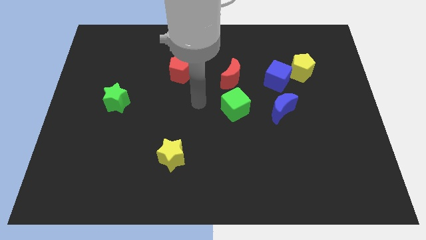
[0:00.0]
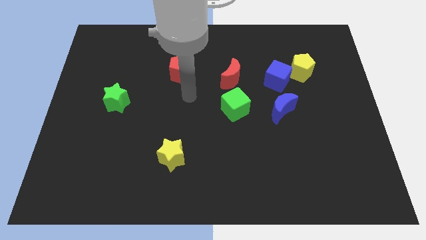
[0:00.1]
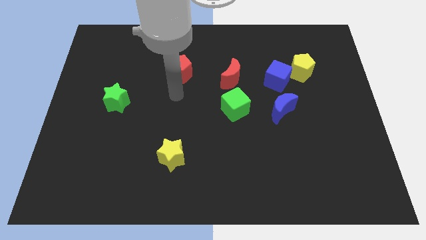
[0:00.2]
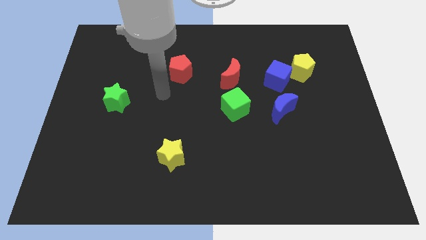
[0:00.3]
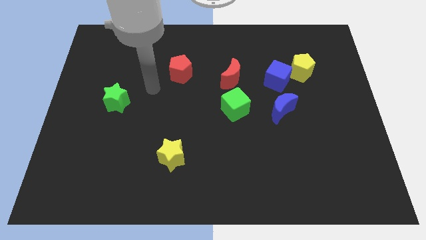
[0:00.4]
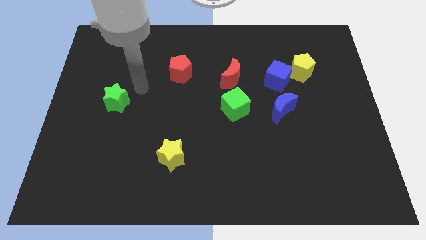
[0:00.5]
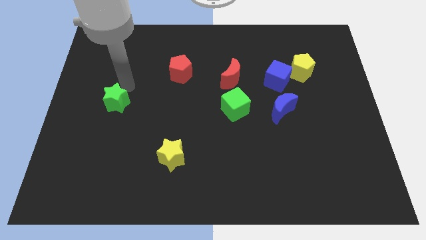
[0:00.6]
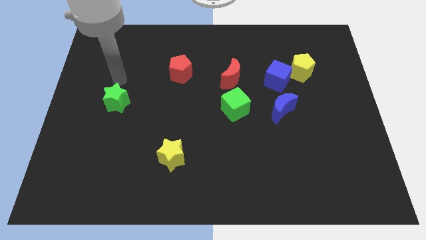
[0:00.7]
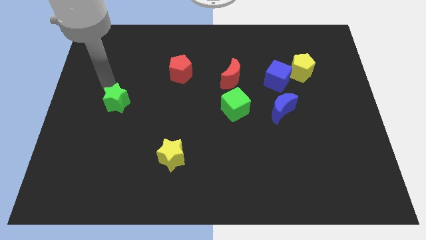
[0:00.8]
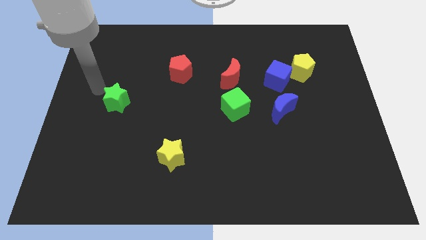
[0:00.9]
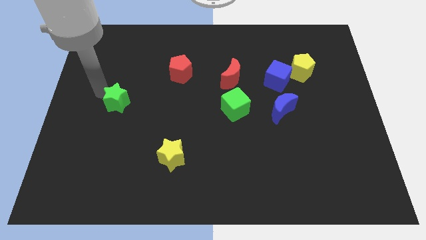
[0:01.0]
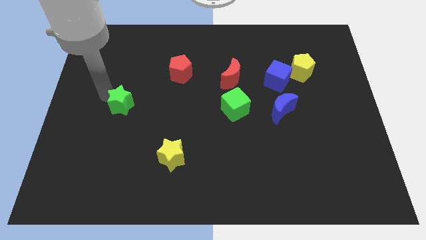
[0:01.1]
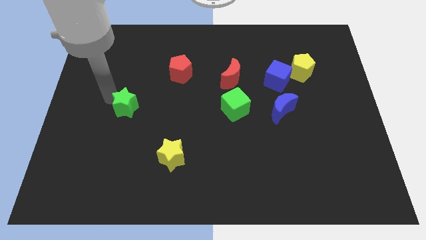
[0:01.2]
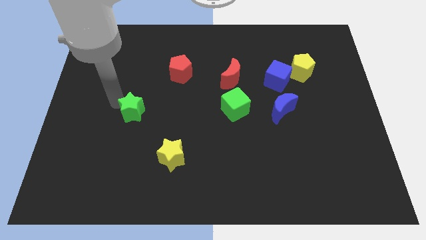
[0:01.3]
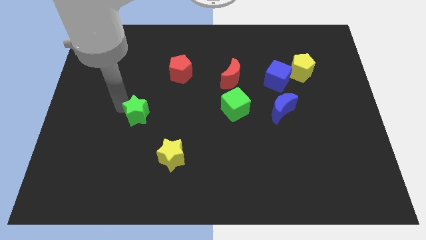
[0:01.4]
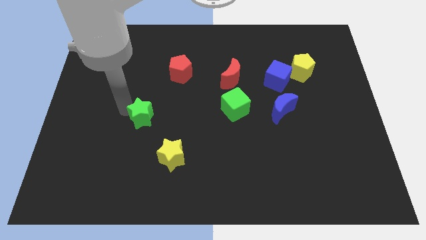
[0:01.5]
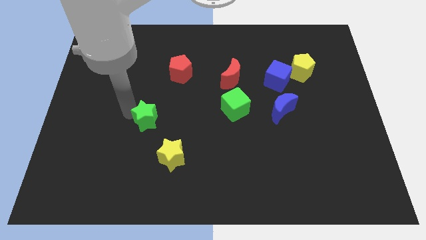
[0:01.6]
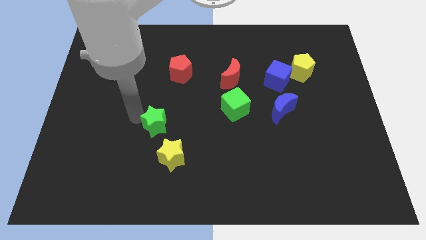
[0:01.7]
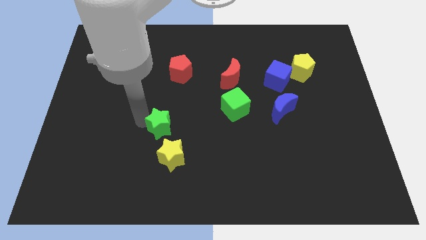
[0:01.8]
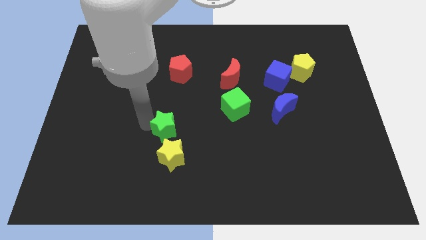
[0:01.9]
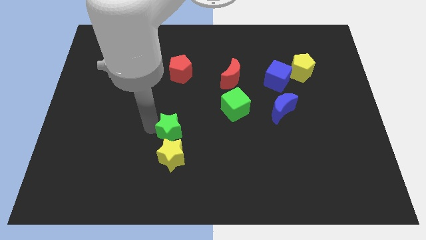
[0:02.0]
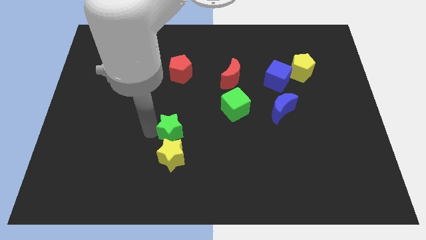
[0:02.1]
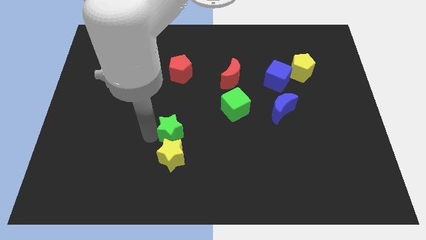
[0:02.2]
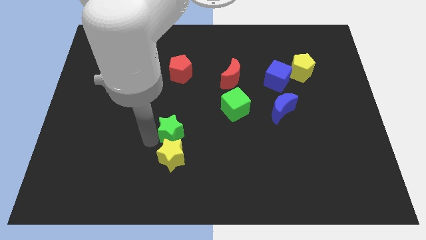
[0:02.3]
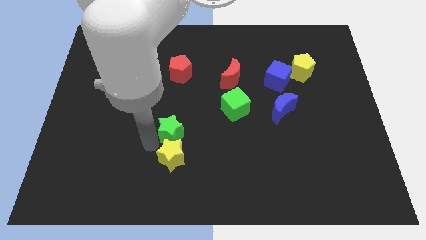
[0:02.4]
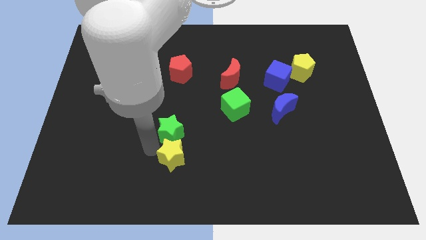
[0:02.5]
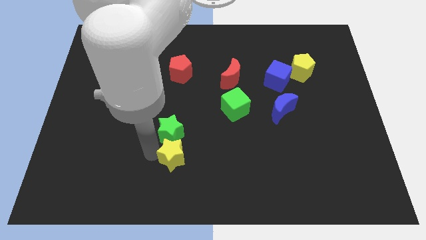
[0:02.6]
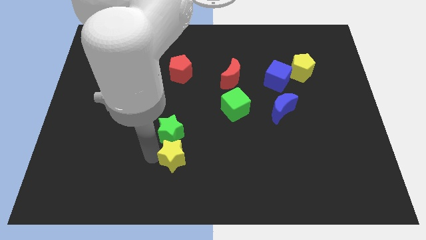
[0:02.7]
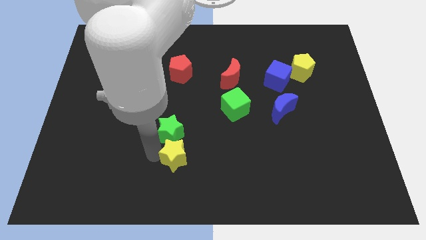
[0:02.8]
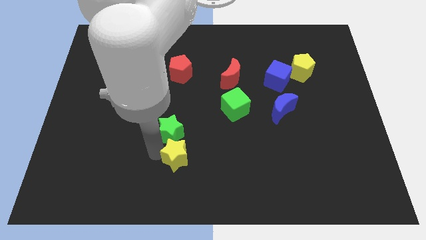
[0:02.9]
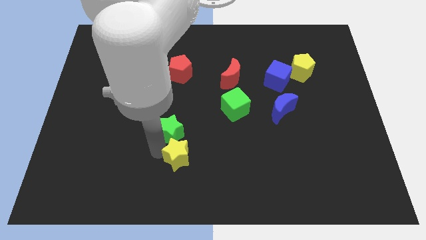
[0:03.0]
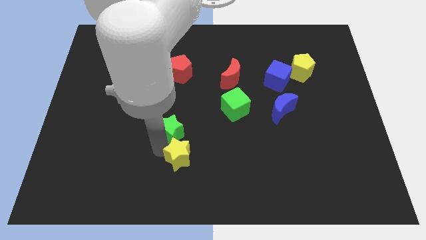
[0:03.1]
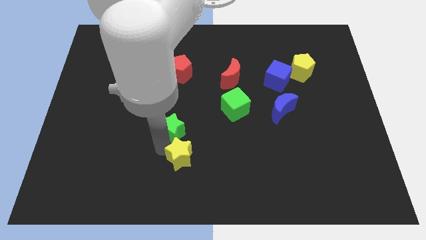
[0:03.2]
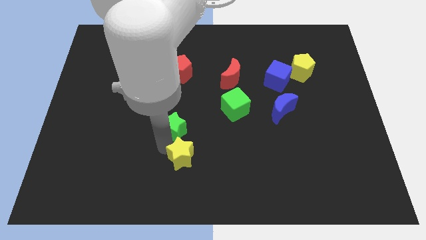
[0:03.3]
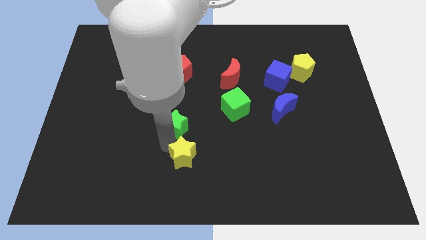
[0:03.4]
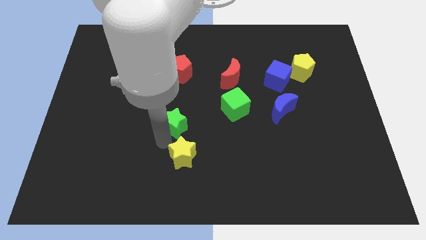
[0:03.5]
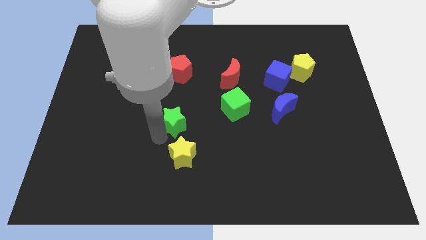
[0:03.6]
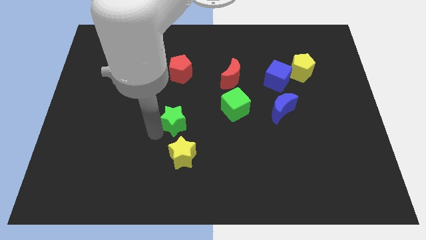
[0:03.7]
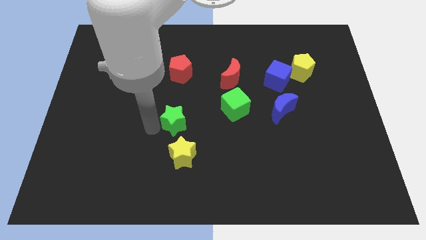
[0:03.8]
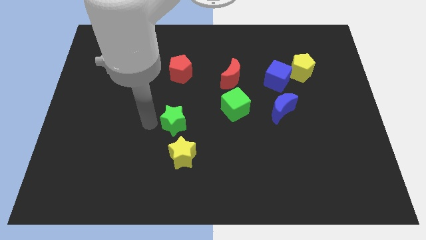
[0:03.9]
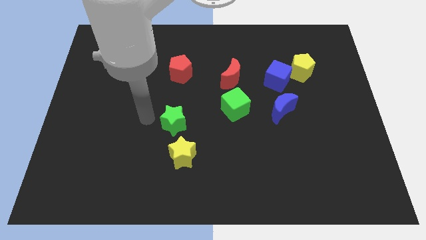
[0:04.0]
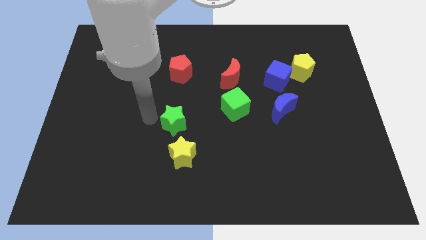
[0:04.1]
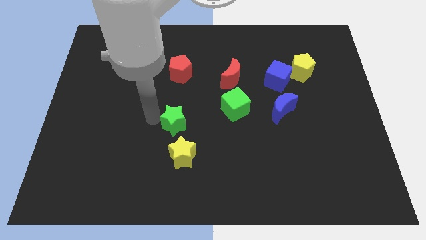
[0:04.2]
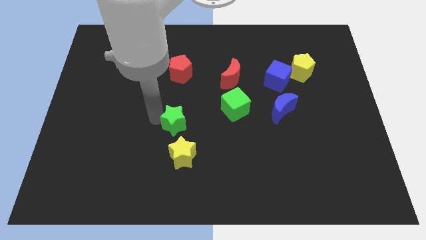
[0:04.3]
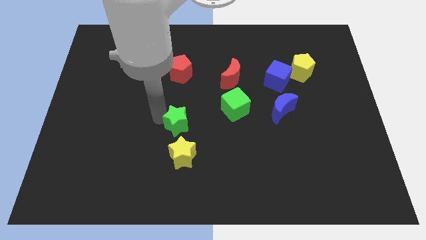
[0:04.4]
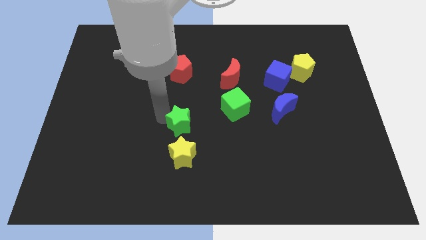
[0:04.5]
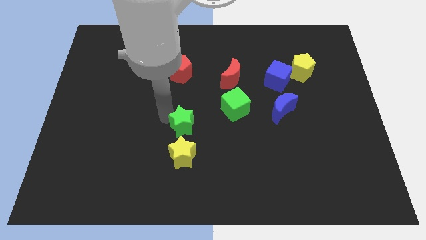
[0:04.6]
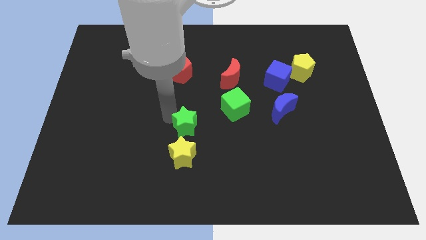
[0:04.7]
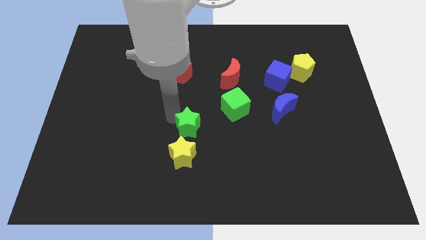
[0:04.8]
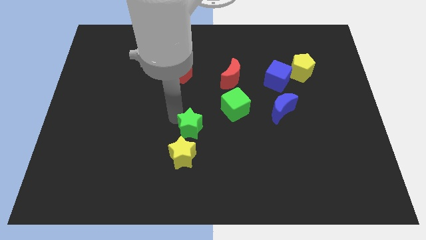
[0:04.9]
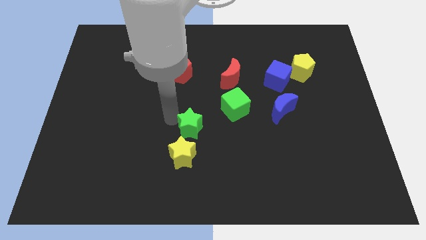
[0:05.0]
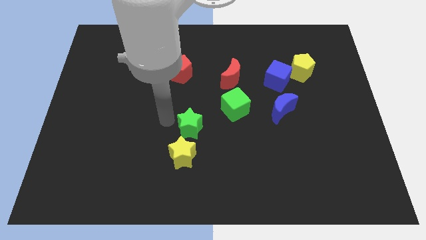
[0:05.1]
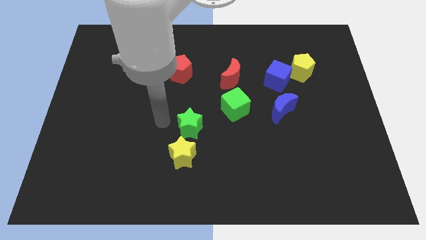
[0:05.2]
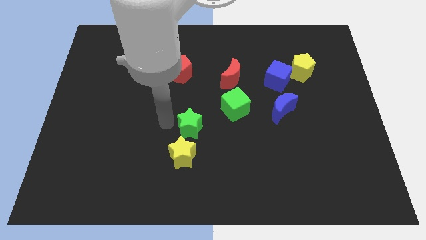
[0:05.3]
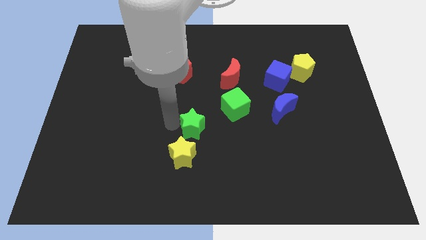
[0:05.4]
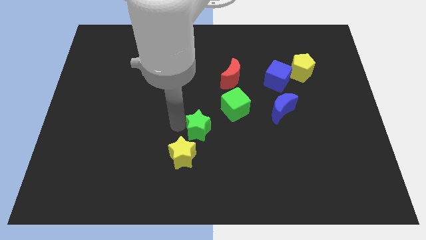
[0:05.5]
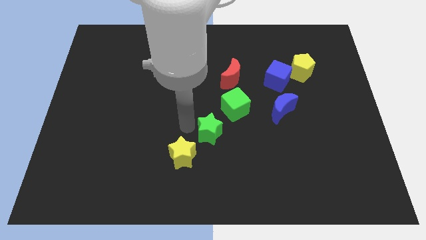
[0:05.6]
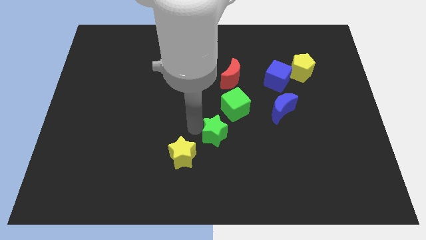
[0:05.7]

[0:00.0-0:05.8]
push the green star below the green cube

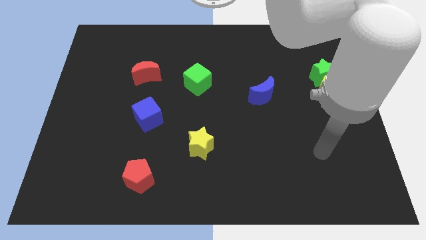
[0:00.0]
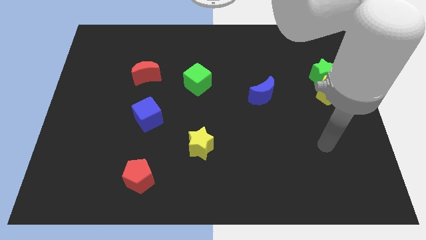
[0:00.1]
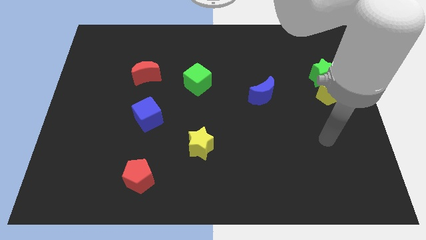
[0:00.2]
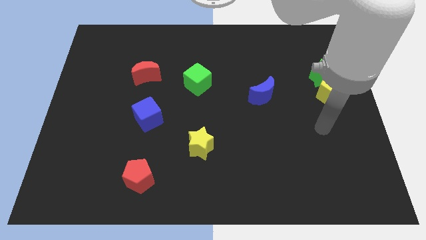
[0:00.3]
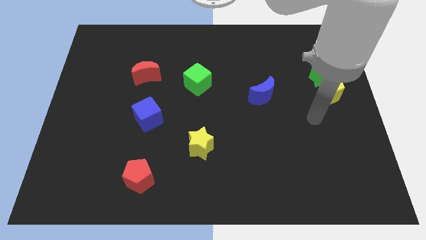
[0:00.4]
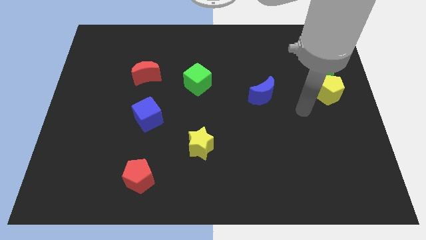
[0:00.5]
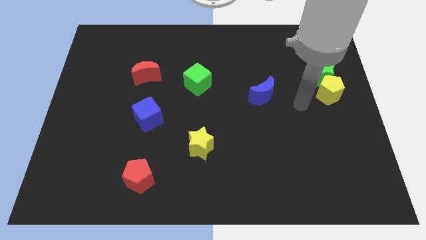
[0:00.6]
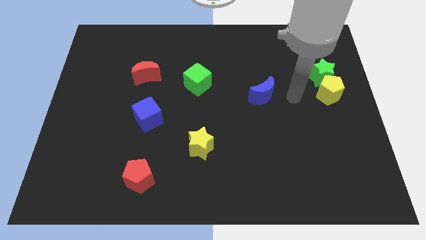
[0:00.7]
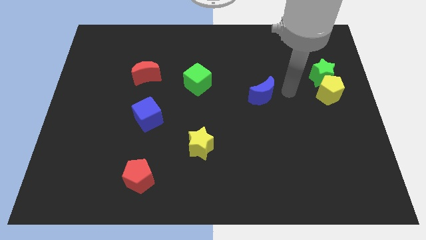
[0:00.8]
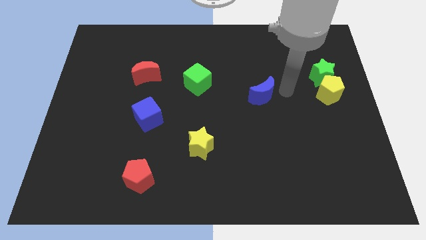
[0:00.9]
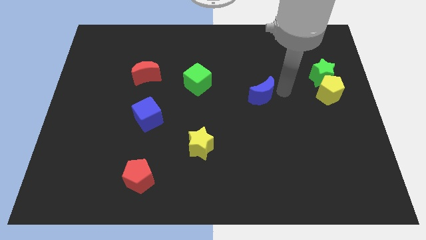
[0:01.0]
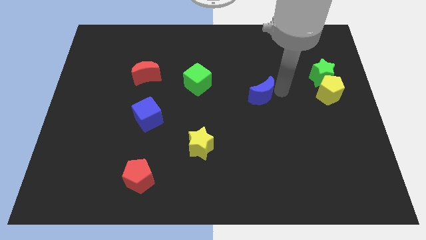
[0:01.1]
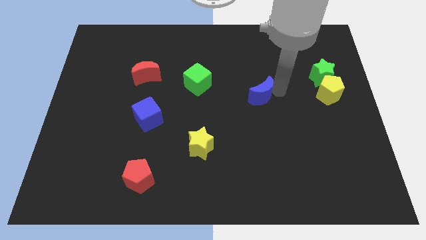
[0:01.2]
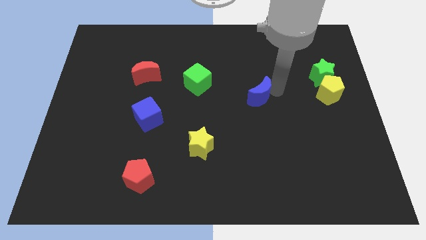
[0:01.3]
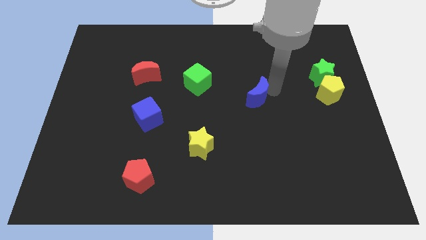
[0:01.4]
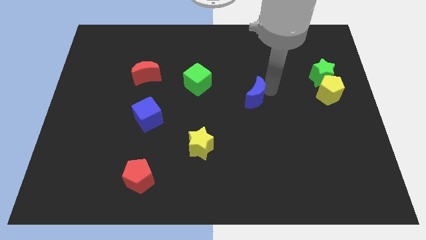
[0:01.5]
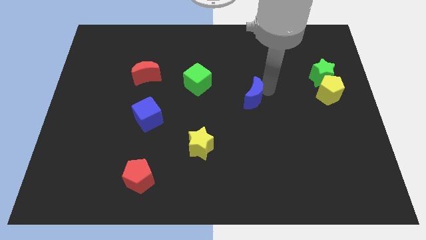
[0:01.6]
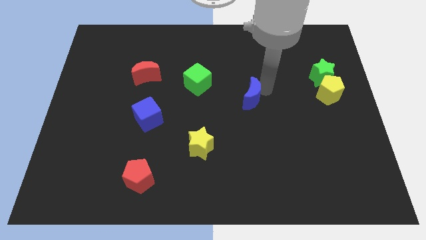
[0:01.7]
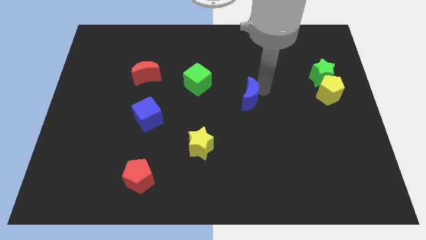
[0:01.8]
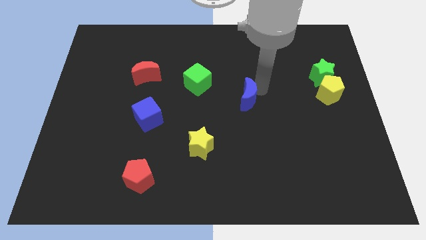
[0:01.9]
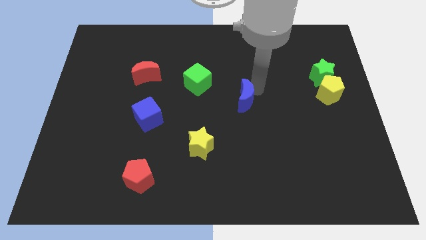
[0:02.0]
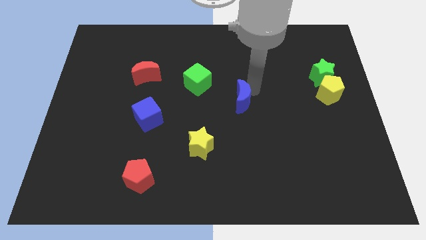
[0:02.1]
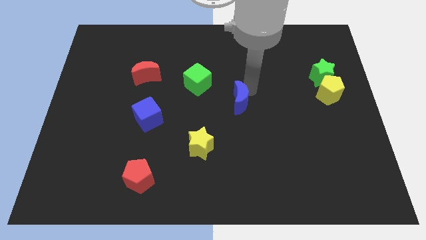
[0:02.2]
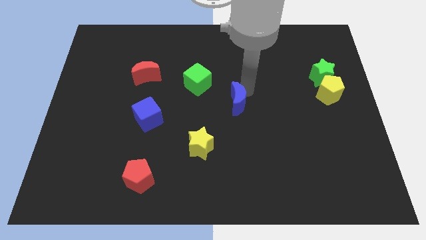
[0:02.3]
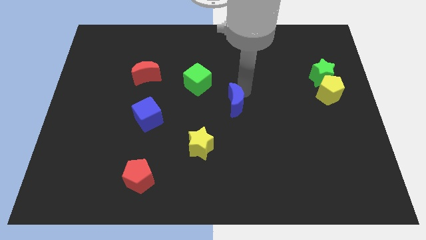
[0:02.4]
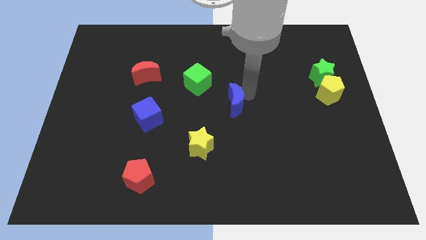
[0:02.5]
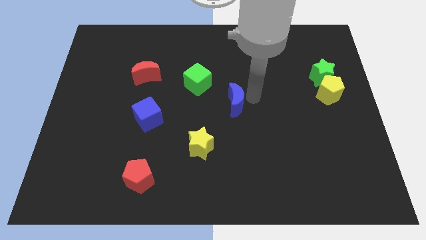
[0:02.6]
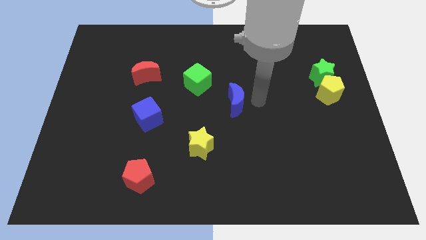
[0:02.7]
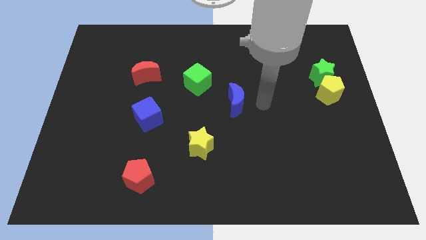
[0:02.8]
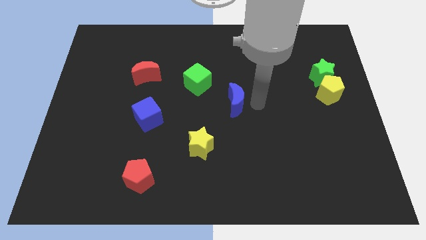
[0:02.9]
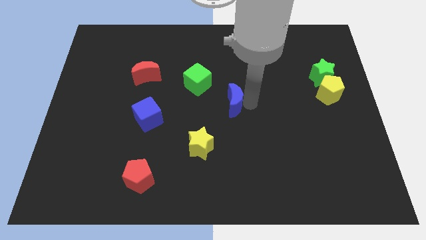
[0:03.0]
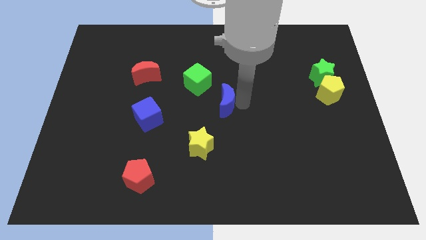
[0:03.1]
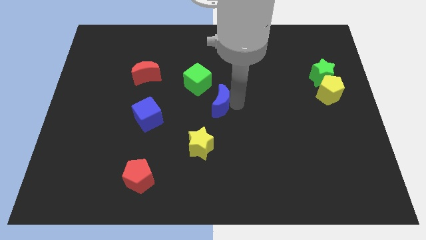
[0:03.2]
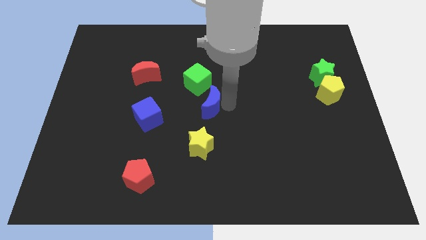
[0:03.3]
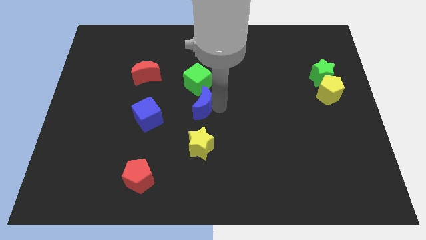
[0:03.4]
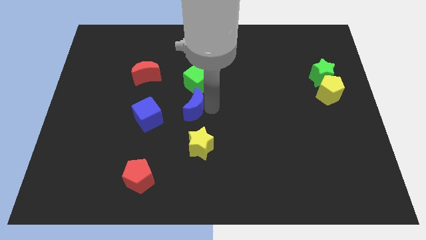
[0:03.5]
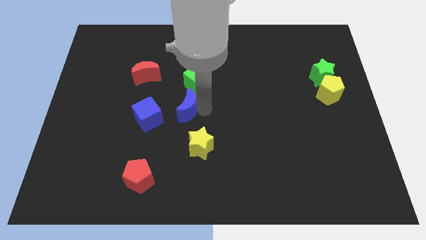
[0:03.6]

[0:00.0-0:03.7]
push the blue moon to the bottom left side of the green cube
